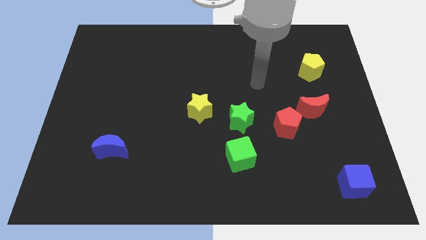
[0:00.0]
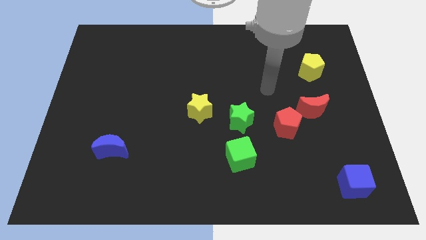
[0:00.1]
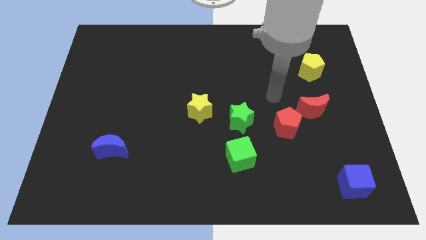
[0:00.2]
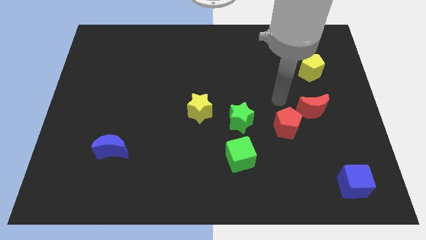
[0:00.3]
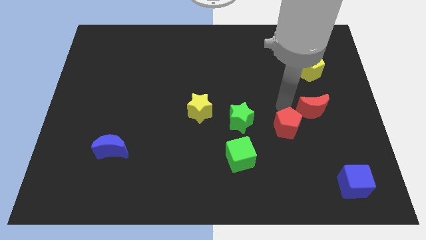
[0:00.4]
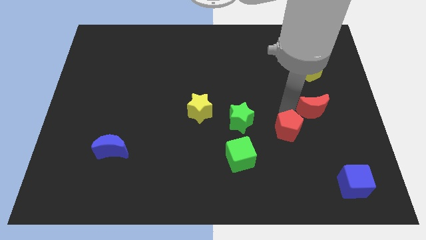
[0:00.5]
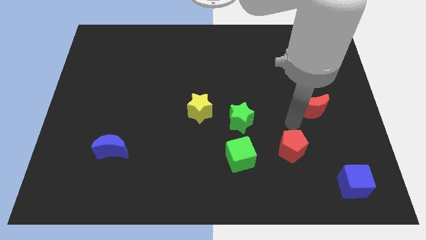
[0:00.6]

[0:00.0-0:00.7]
pull the red moon apart from the red pentagon

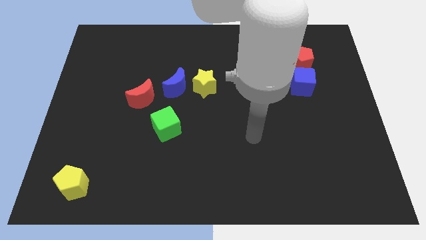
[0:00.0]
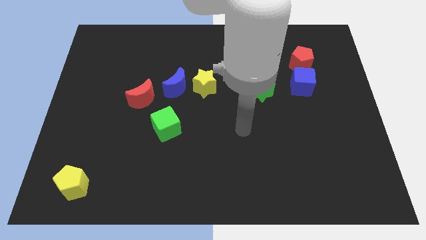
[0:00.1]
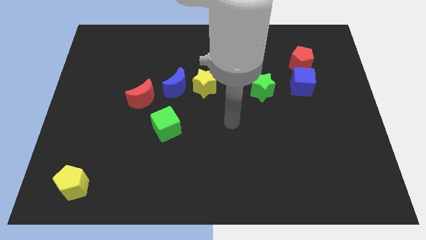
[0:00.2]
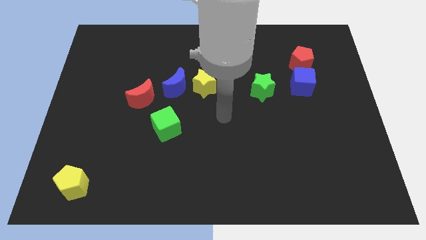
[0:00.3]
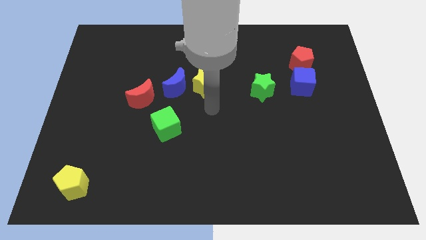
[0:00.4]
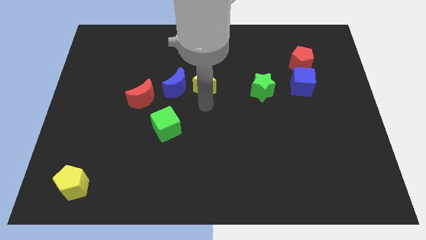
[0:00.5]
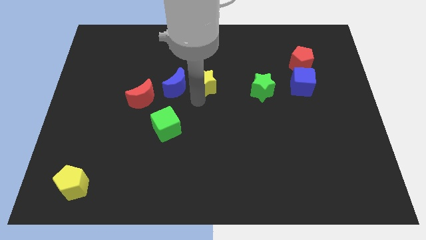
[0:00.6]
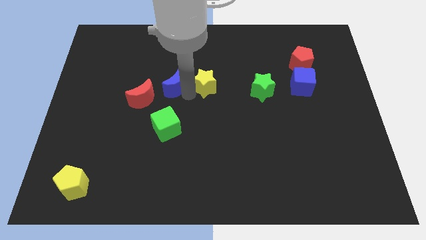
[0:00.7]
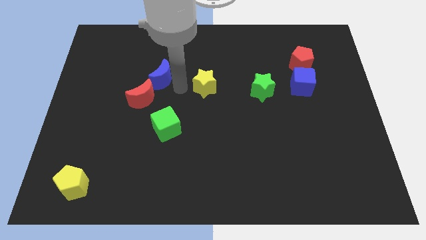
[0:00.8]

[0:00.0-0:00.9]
pull the yellow star apart from the blue moon

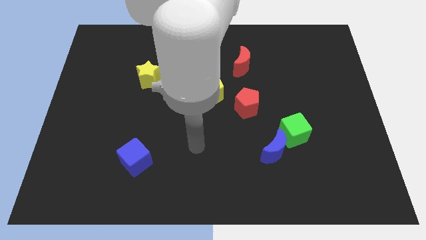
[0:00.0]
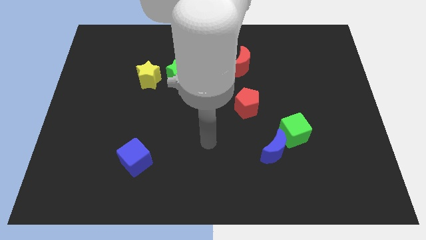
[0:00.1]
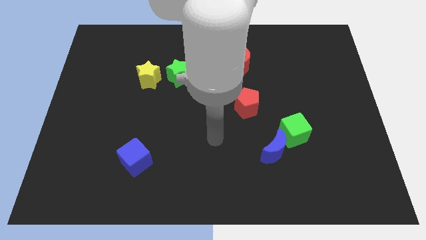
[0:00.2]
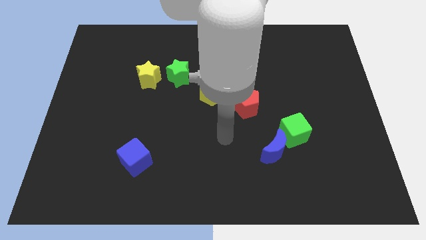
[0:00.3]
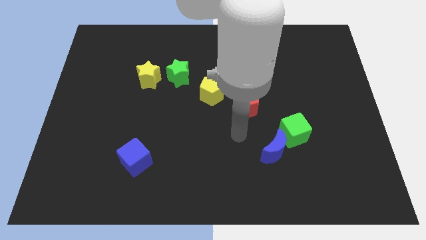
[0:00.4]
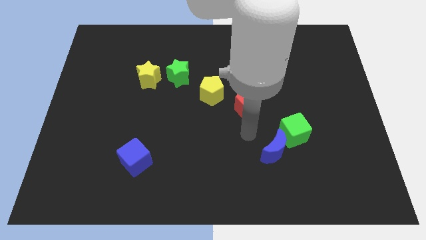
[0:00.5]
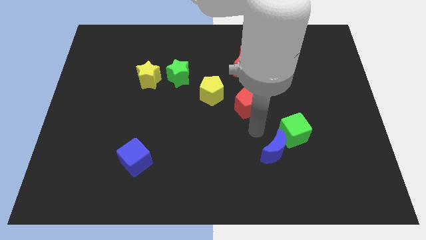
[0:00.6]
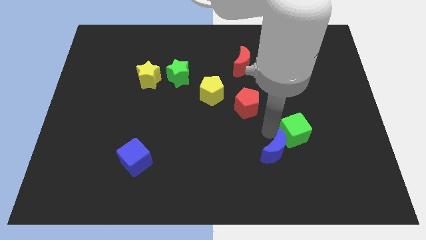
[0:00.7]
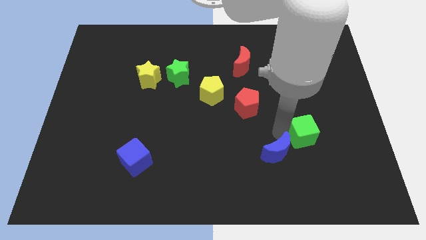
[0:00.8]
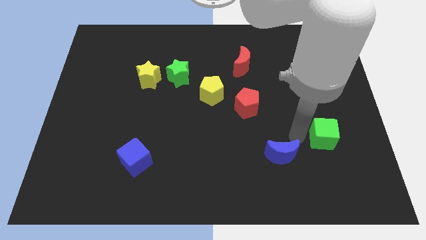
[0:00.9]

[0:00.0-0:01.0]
pull the blue moon apart from the green cube

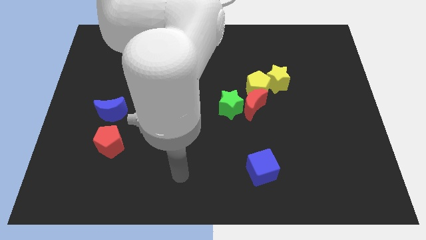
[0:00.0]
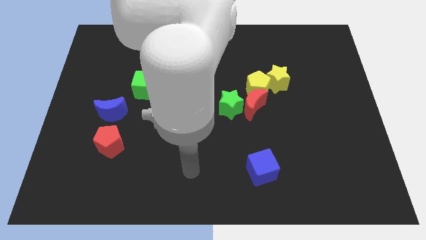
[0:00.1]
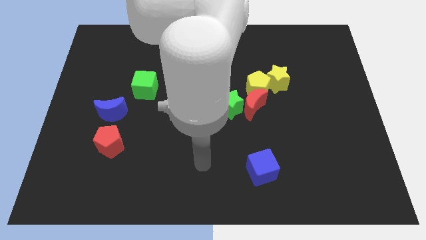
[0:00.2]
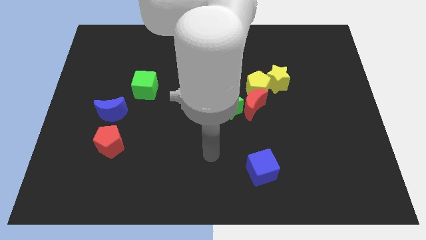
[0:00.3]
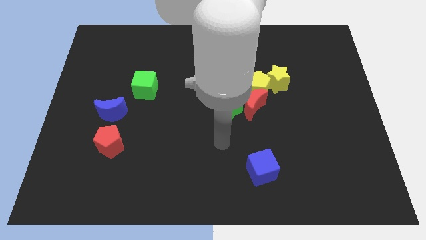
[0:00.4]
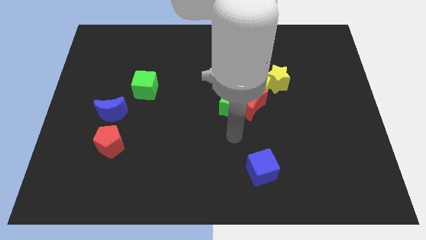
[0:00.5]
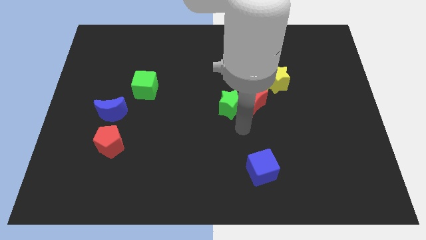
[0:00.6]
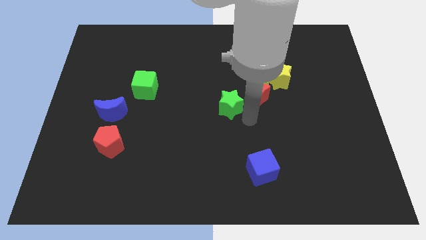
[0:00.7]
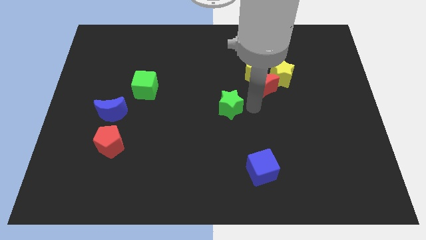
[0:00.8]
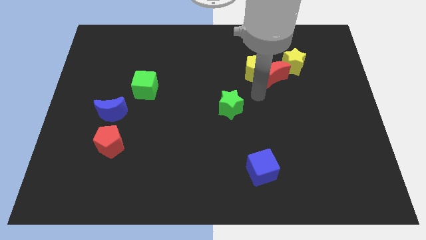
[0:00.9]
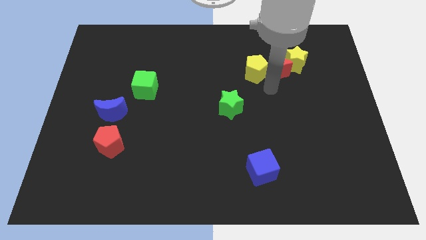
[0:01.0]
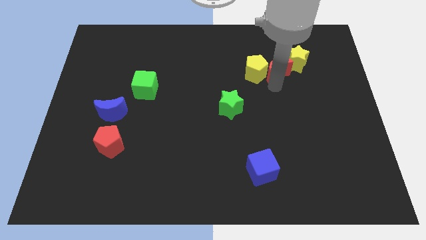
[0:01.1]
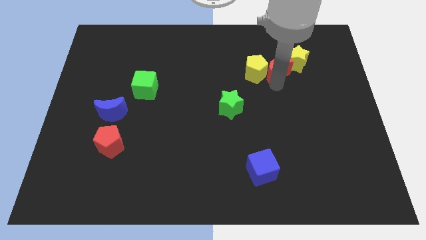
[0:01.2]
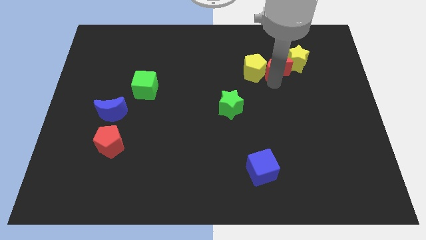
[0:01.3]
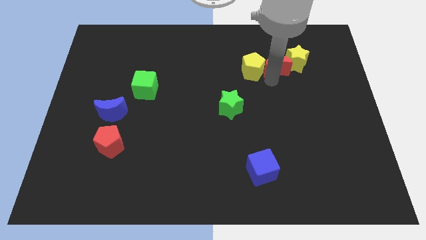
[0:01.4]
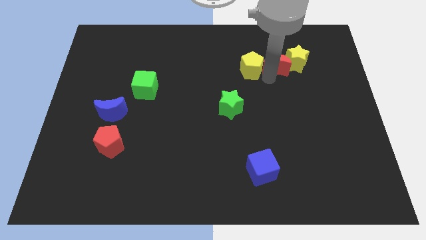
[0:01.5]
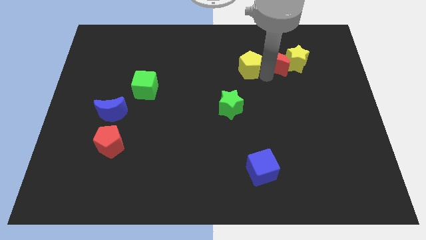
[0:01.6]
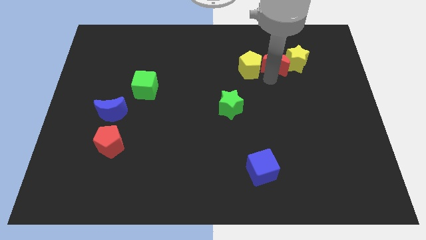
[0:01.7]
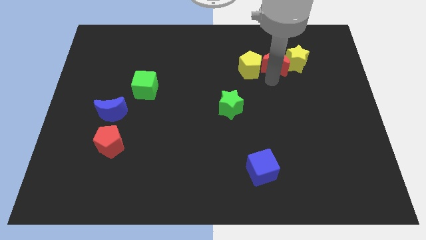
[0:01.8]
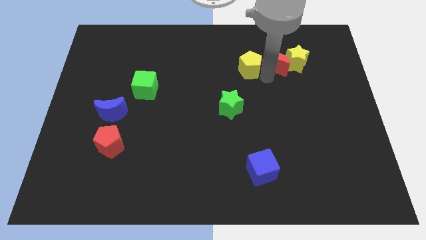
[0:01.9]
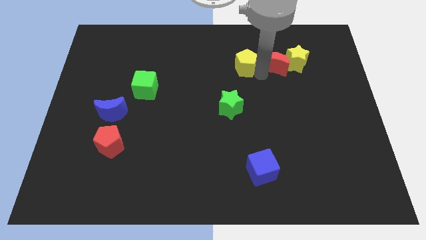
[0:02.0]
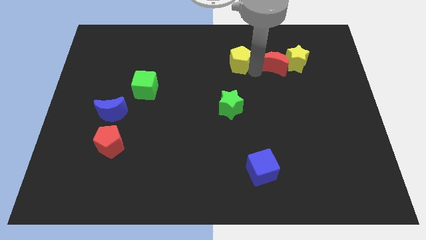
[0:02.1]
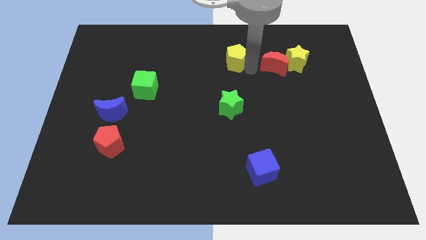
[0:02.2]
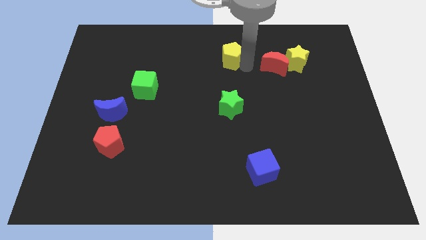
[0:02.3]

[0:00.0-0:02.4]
pull the yellow pentagon apart from the yellow star, red moon, and green star

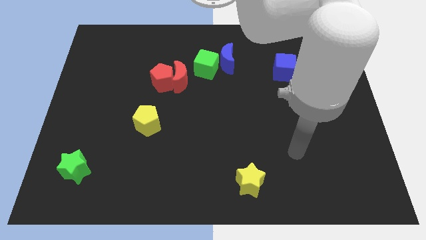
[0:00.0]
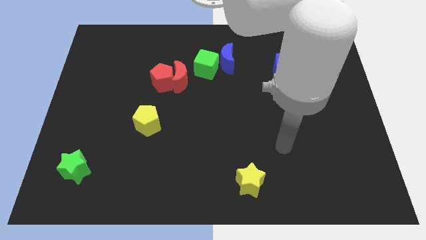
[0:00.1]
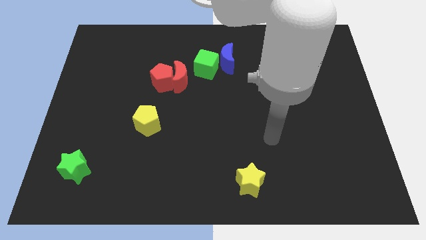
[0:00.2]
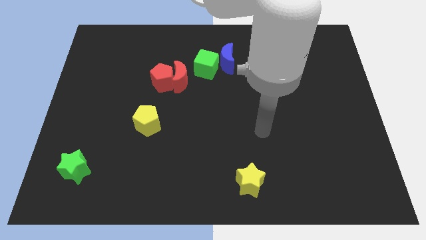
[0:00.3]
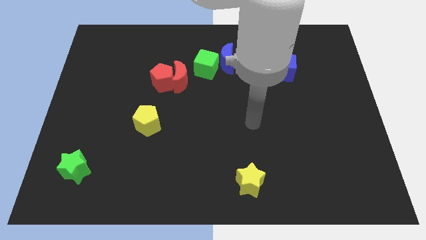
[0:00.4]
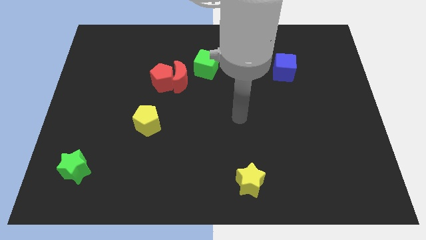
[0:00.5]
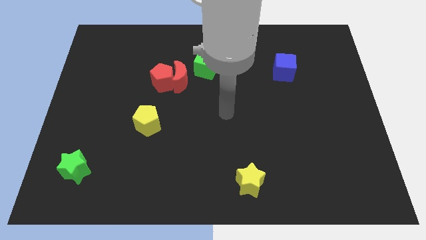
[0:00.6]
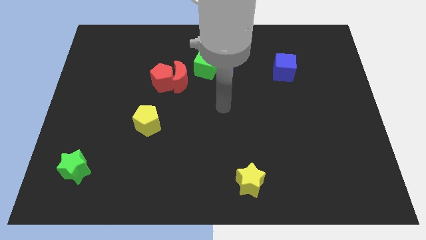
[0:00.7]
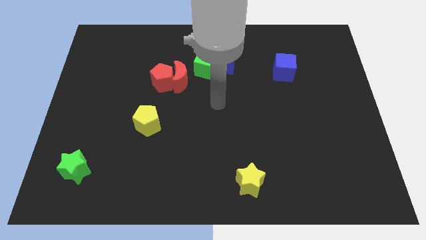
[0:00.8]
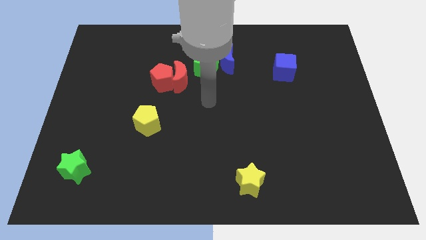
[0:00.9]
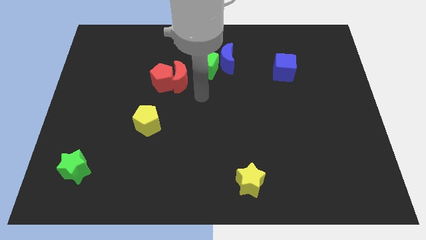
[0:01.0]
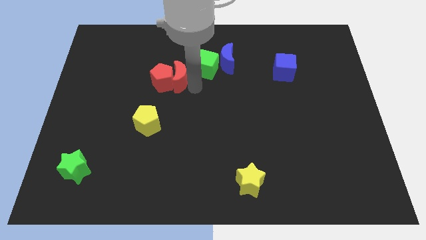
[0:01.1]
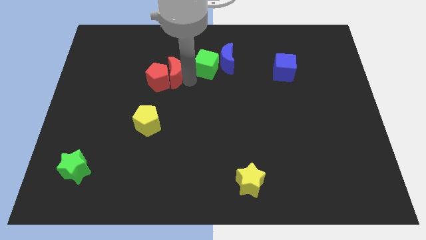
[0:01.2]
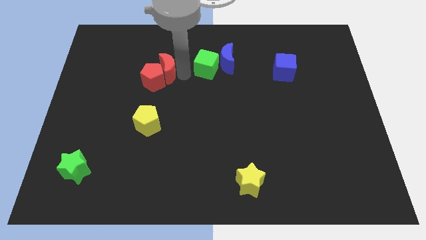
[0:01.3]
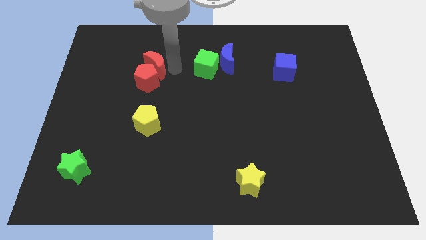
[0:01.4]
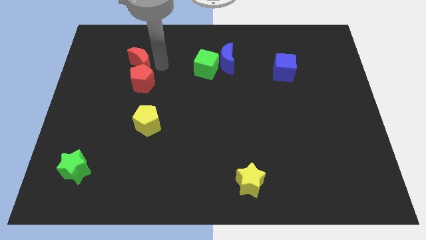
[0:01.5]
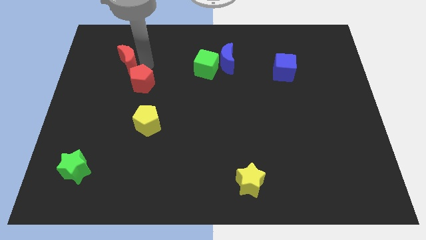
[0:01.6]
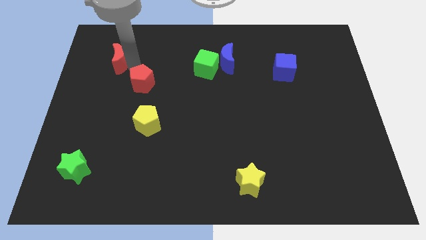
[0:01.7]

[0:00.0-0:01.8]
move the red pentagon away from the red moon

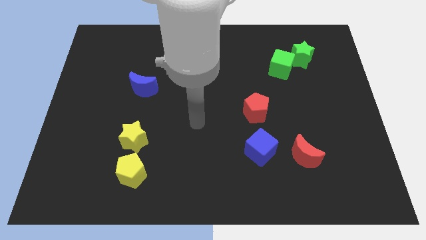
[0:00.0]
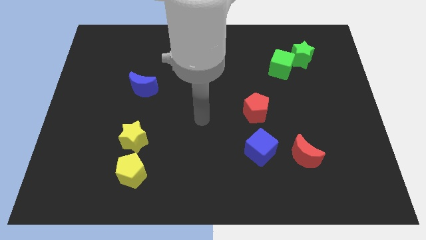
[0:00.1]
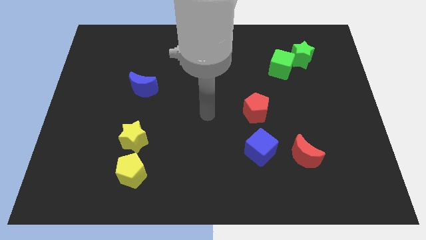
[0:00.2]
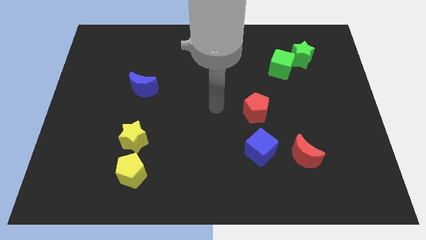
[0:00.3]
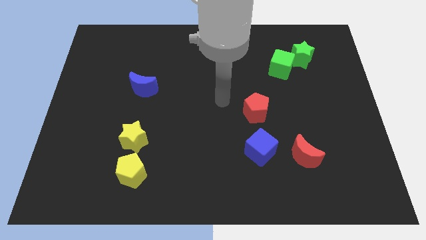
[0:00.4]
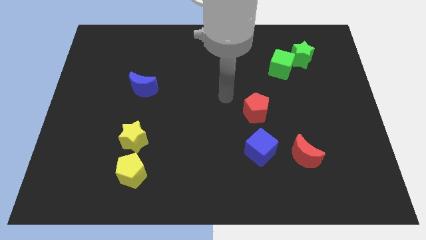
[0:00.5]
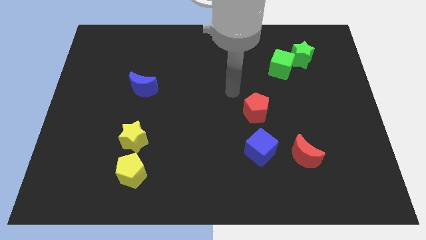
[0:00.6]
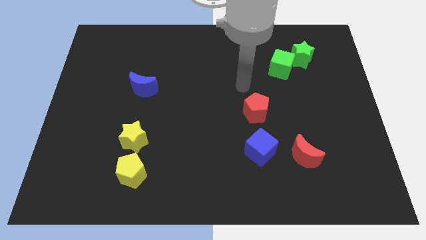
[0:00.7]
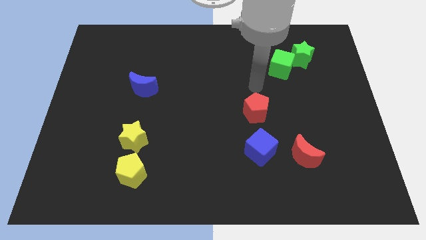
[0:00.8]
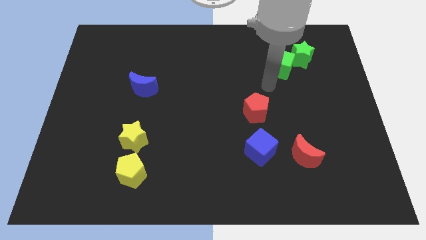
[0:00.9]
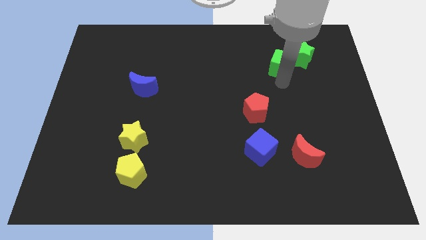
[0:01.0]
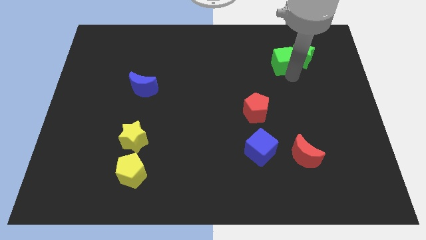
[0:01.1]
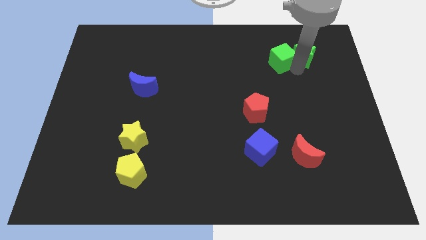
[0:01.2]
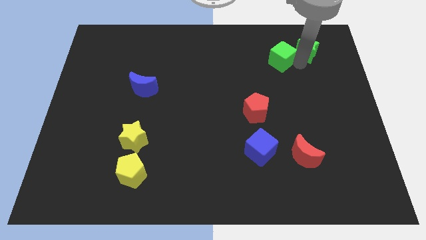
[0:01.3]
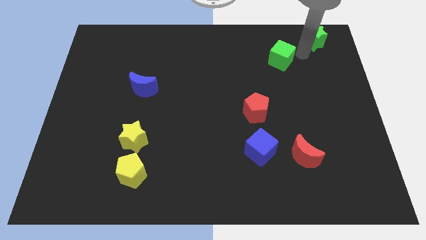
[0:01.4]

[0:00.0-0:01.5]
pull the green cube apart from the green star

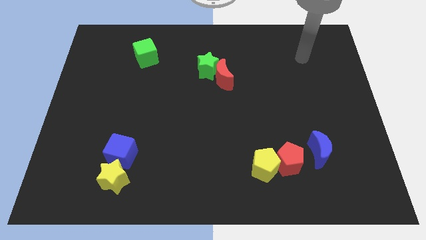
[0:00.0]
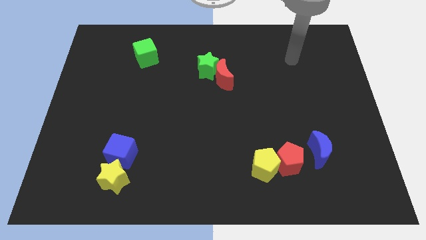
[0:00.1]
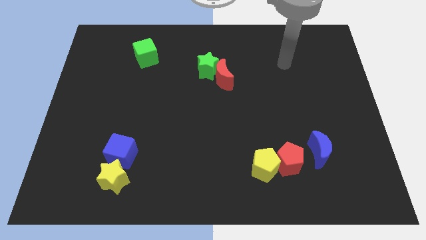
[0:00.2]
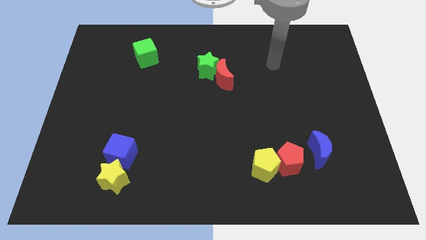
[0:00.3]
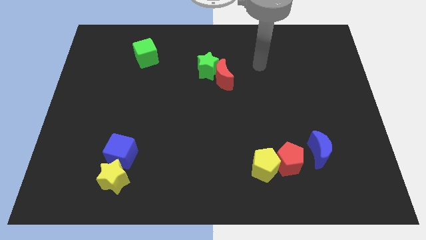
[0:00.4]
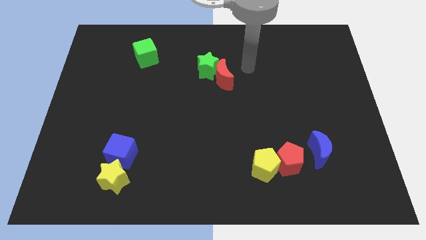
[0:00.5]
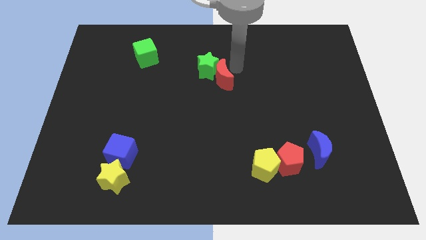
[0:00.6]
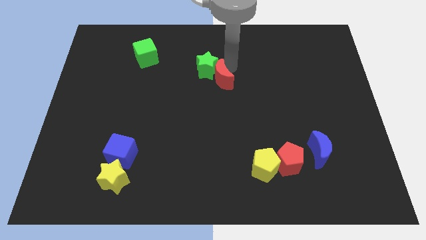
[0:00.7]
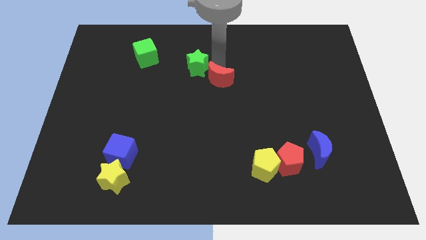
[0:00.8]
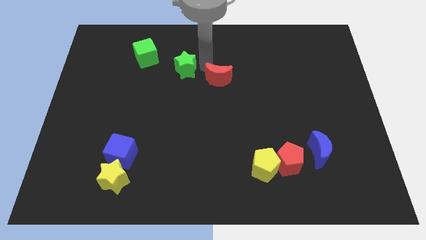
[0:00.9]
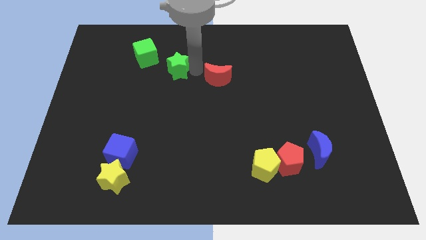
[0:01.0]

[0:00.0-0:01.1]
move the red moon away from the green star
